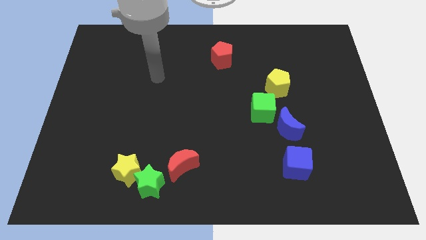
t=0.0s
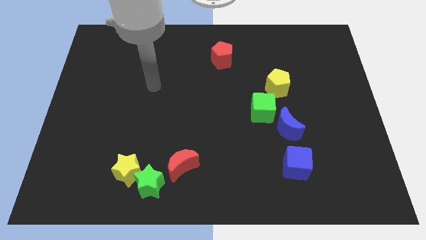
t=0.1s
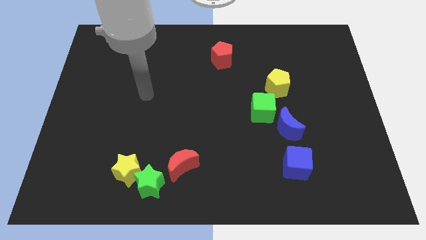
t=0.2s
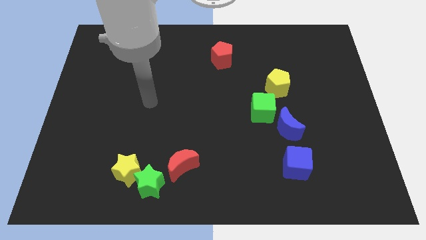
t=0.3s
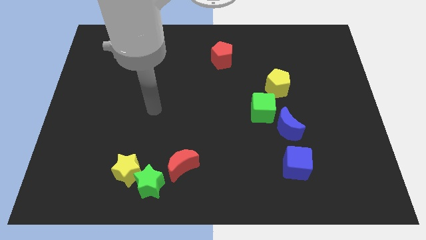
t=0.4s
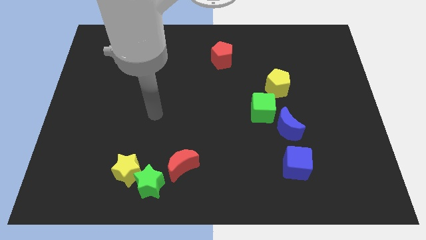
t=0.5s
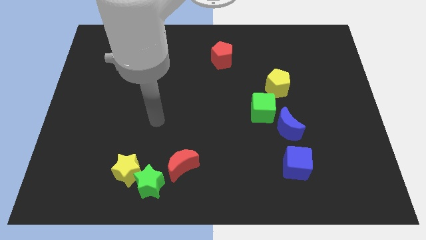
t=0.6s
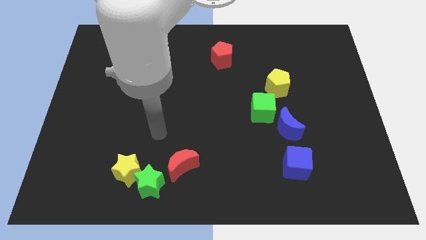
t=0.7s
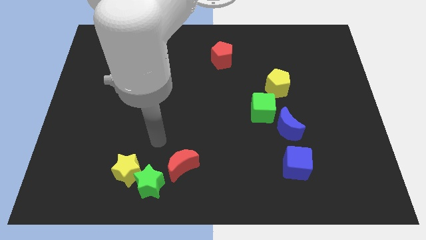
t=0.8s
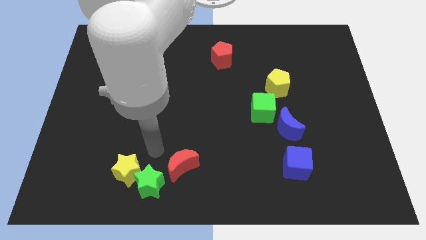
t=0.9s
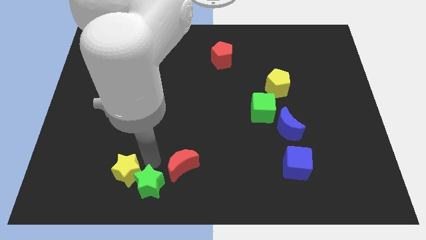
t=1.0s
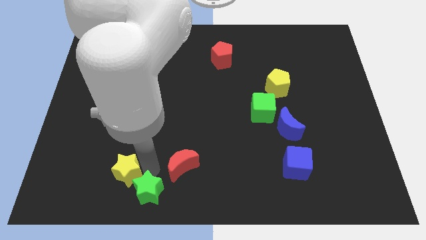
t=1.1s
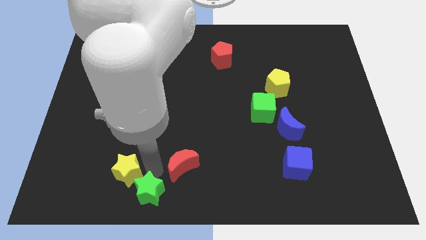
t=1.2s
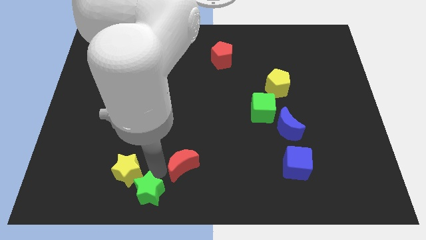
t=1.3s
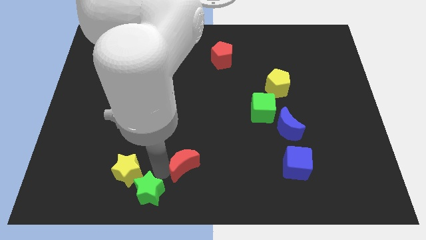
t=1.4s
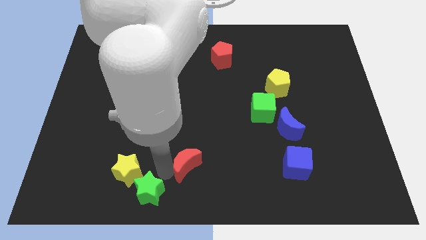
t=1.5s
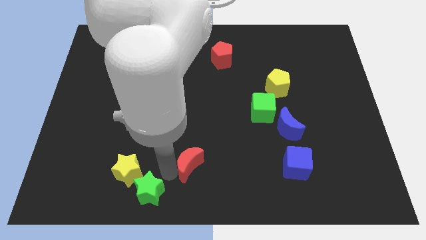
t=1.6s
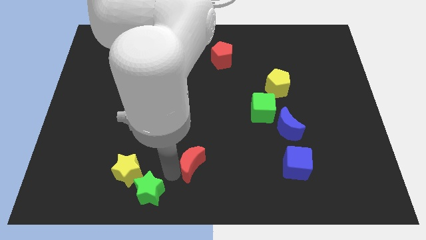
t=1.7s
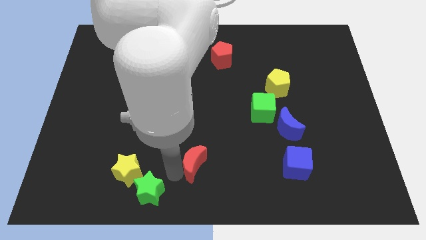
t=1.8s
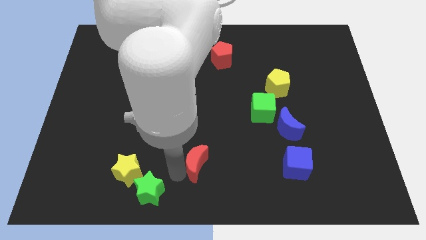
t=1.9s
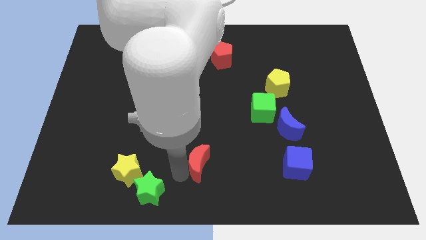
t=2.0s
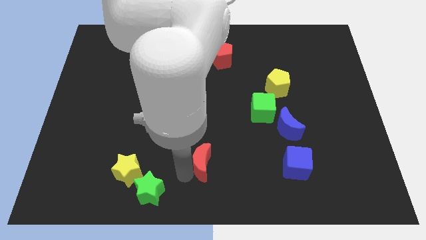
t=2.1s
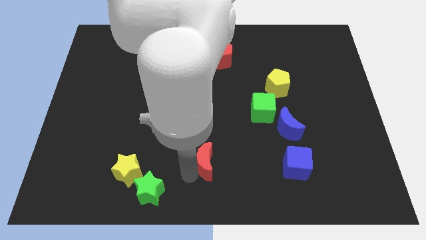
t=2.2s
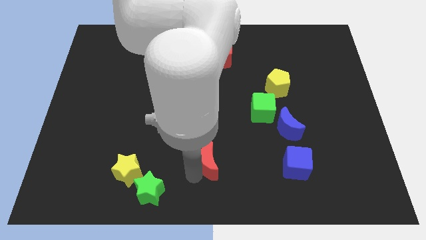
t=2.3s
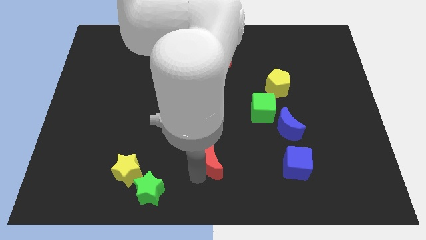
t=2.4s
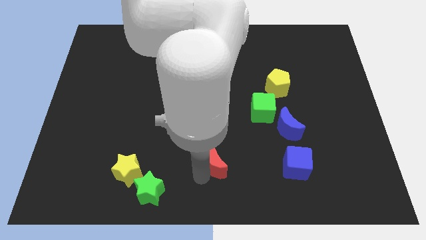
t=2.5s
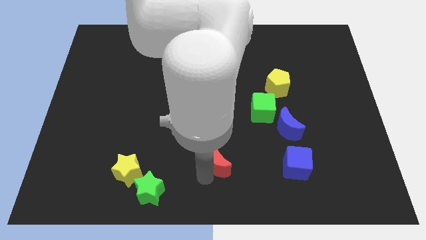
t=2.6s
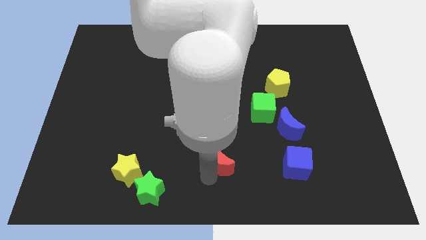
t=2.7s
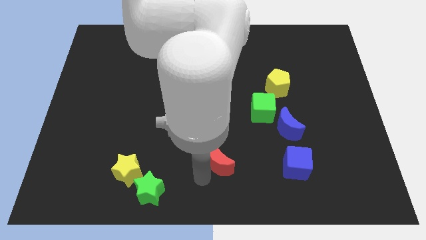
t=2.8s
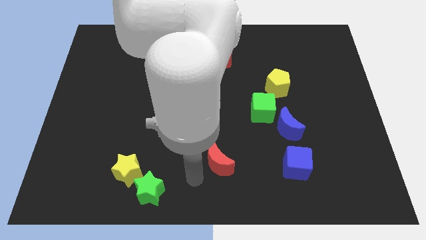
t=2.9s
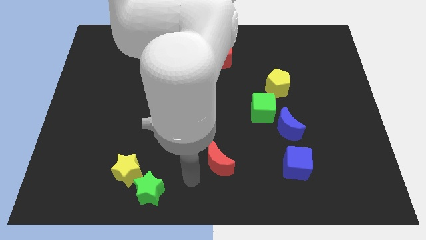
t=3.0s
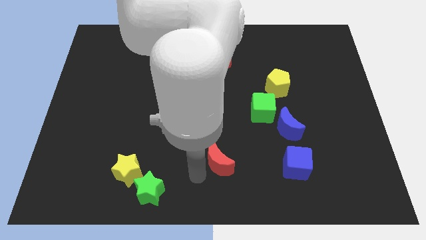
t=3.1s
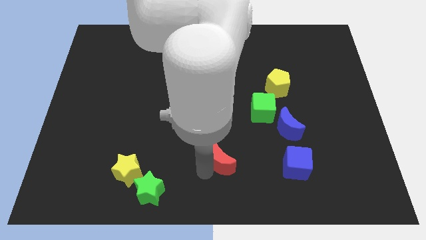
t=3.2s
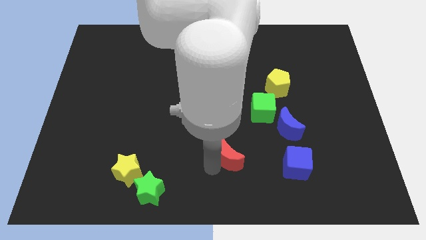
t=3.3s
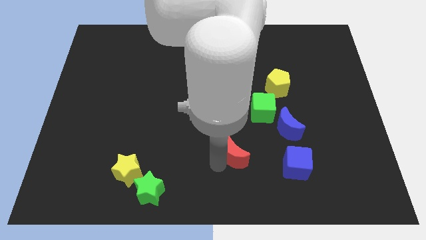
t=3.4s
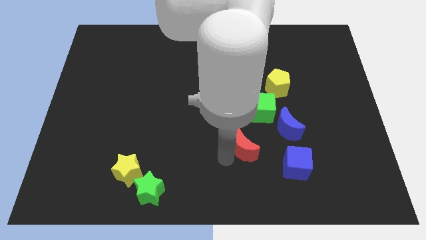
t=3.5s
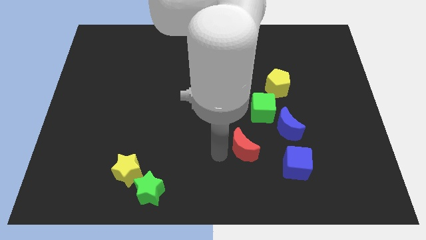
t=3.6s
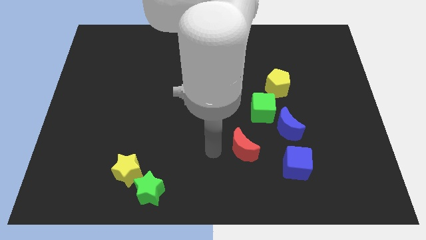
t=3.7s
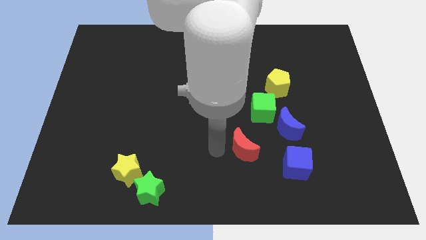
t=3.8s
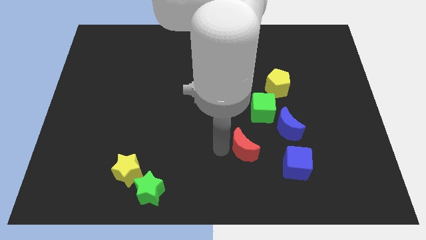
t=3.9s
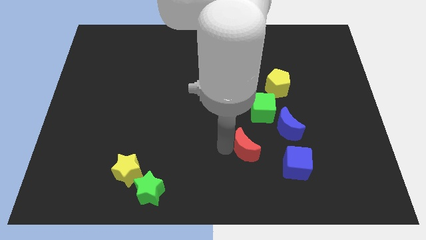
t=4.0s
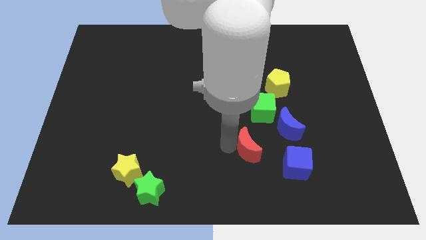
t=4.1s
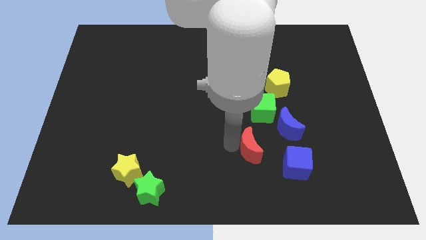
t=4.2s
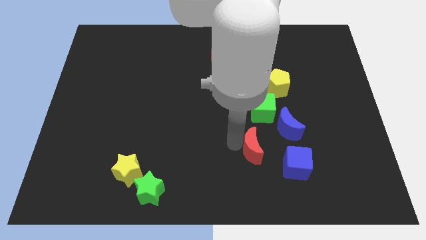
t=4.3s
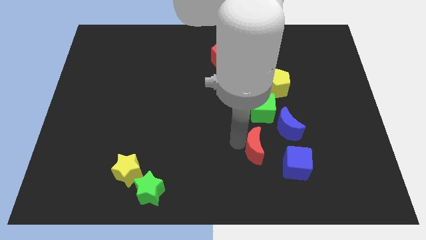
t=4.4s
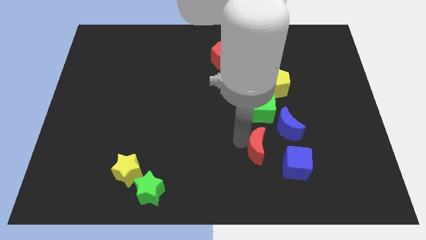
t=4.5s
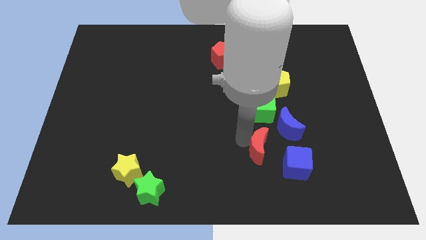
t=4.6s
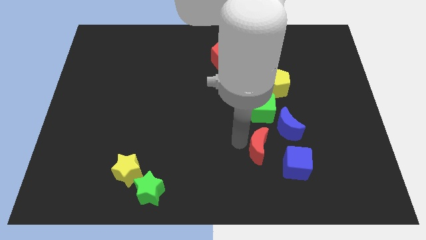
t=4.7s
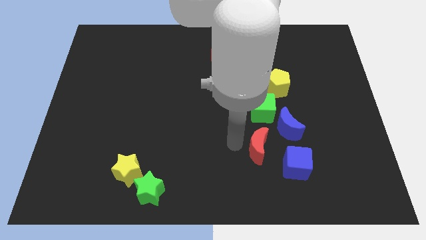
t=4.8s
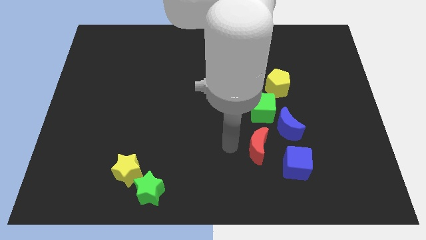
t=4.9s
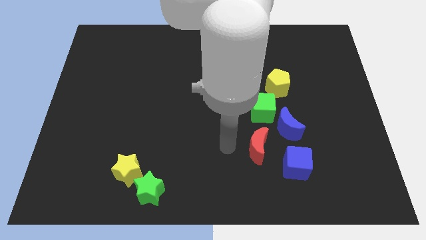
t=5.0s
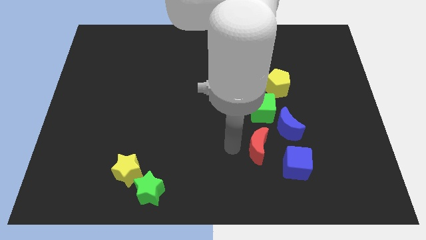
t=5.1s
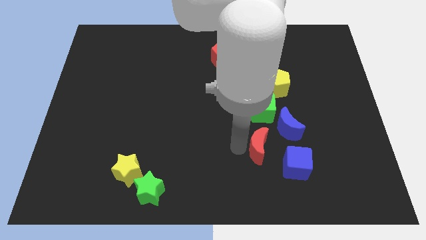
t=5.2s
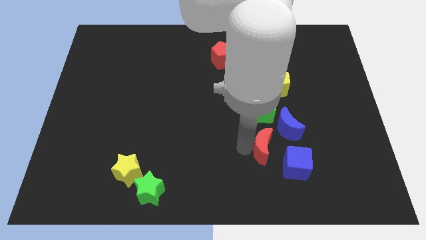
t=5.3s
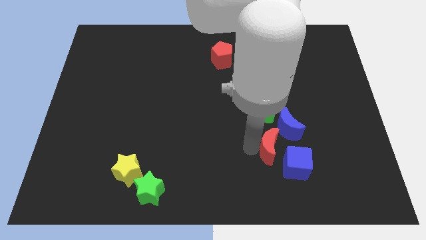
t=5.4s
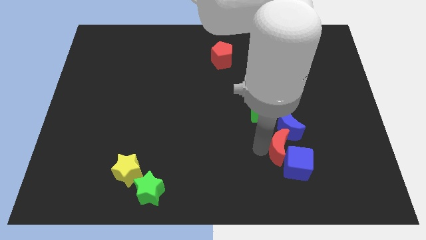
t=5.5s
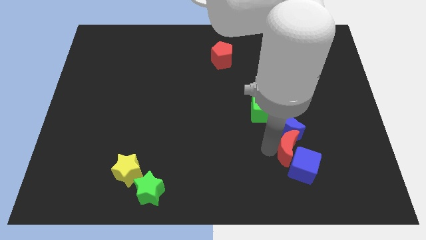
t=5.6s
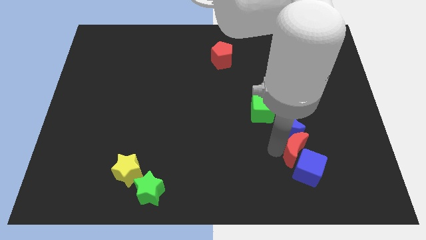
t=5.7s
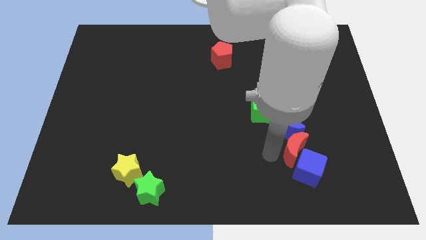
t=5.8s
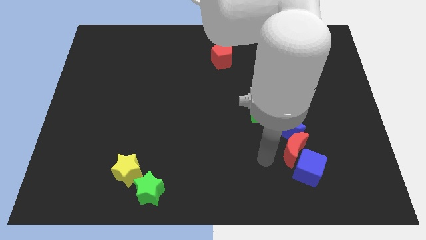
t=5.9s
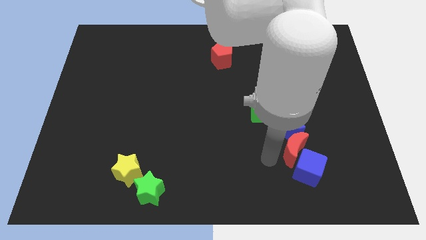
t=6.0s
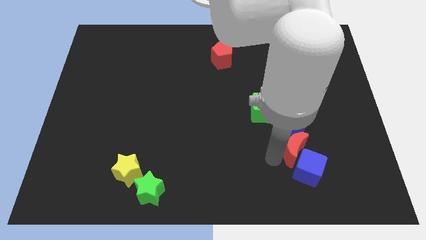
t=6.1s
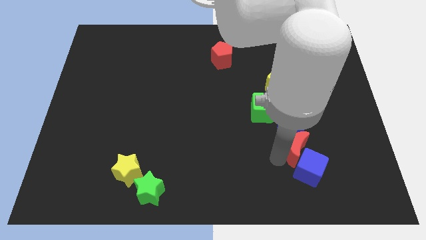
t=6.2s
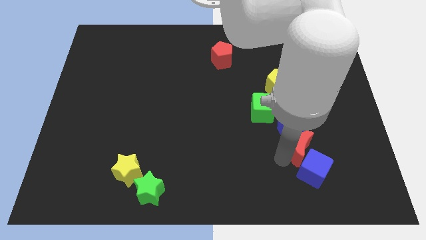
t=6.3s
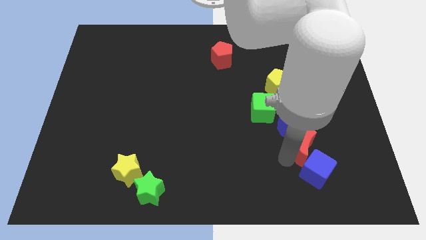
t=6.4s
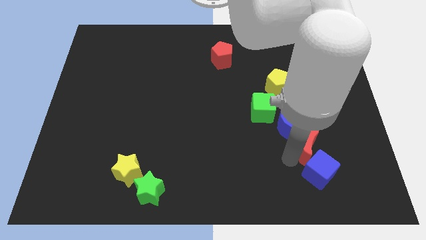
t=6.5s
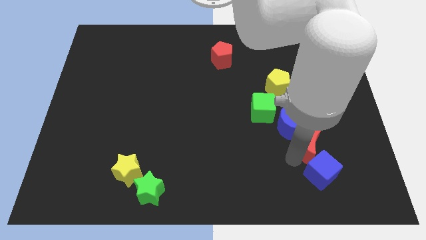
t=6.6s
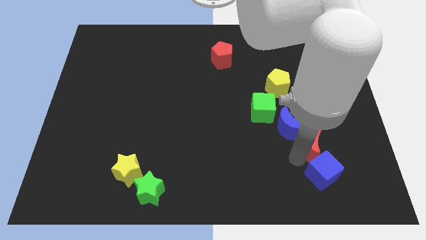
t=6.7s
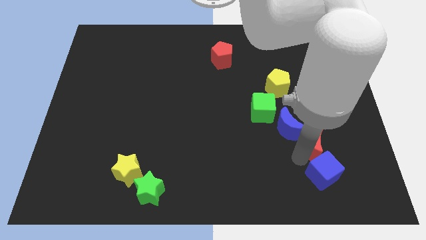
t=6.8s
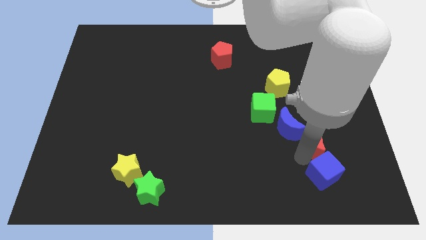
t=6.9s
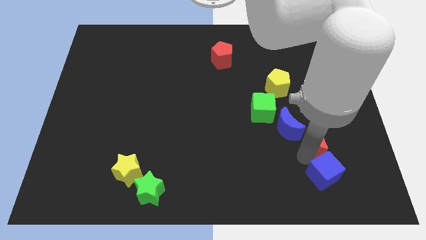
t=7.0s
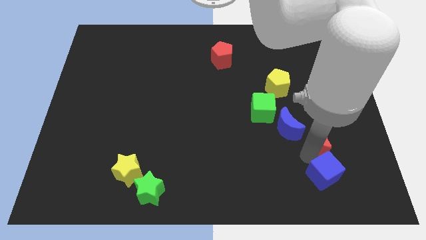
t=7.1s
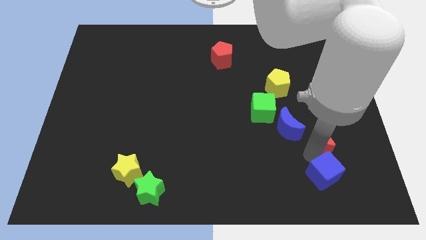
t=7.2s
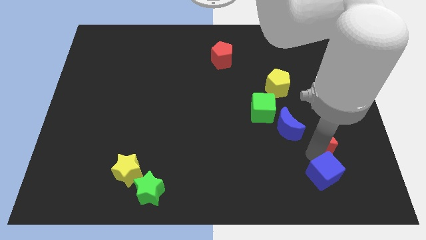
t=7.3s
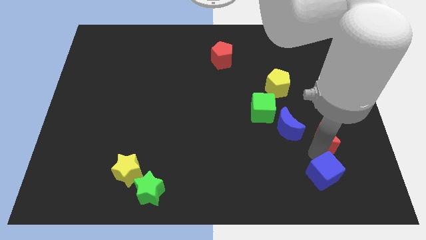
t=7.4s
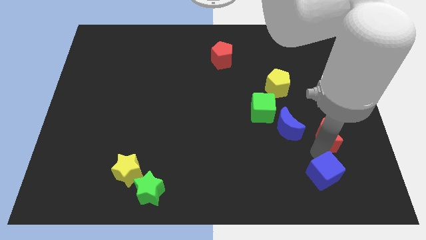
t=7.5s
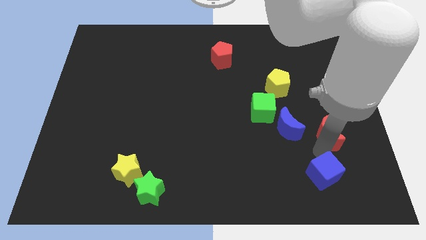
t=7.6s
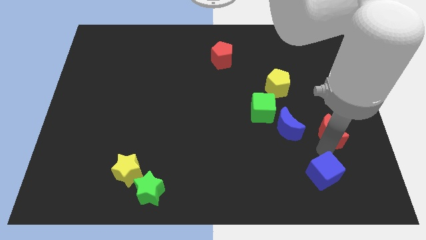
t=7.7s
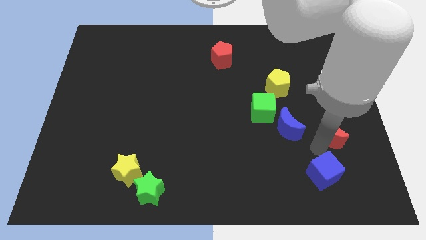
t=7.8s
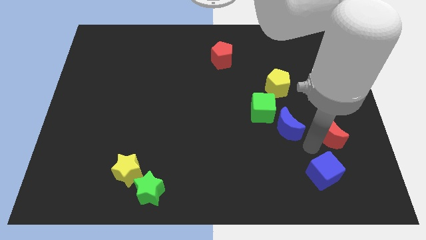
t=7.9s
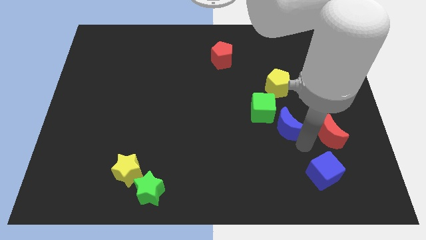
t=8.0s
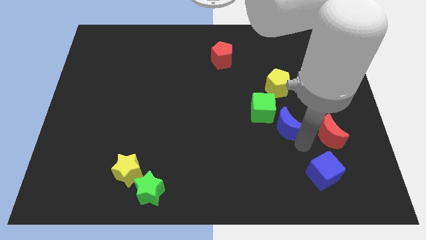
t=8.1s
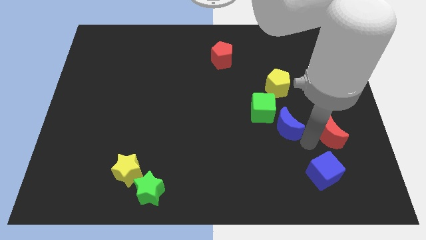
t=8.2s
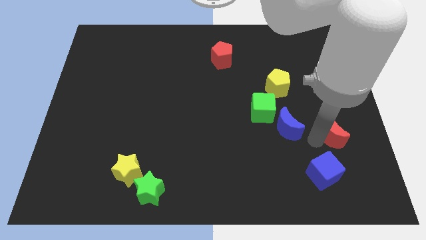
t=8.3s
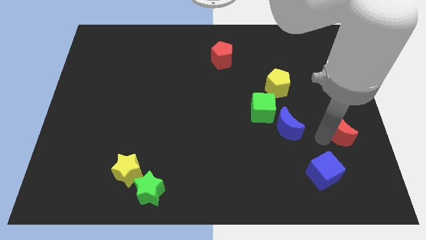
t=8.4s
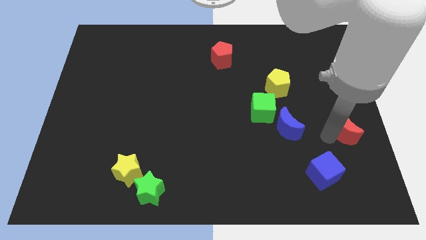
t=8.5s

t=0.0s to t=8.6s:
put the red moon to the right side

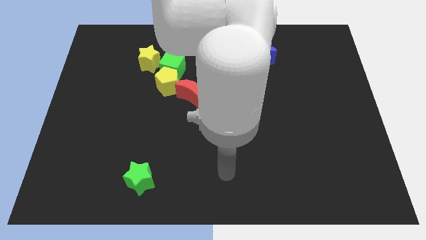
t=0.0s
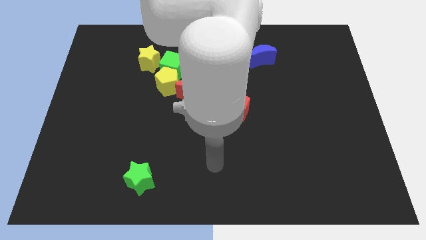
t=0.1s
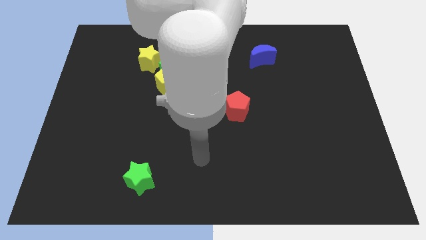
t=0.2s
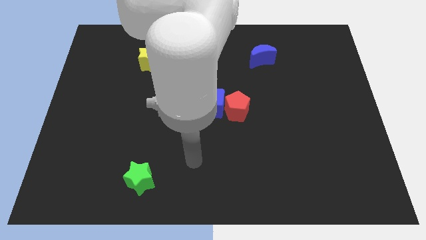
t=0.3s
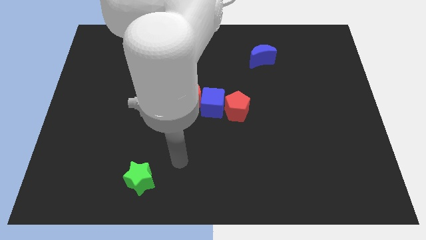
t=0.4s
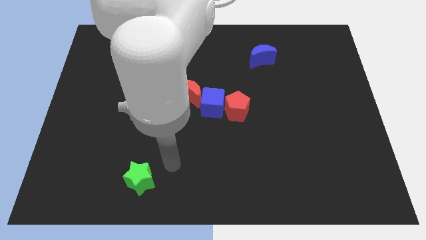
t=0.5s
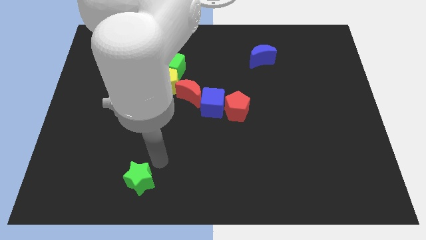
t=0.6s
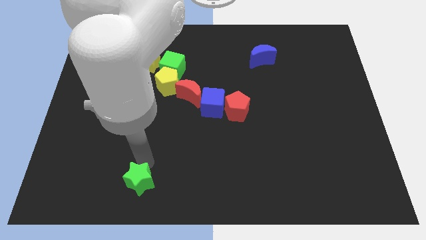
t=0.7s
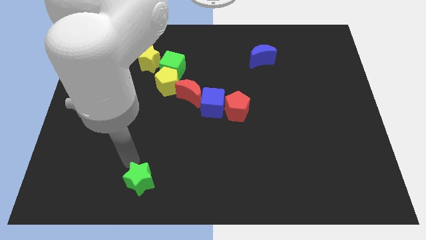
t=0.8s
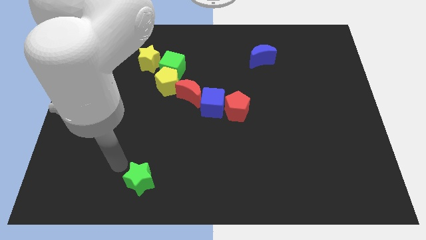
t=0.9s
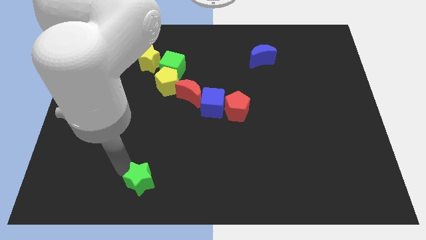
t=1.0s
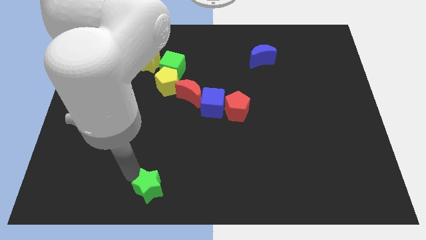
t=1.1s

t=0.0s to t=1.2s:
put the green star to the bottom side
